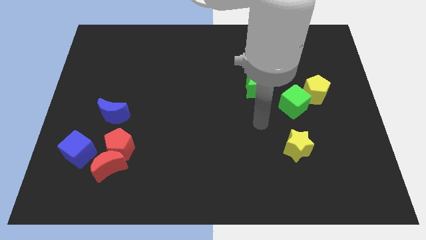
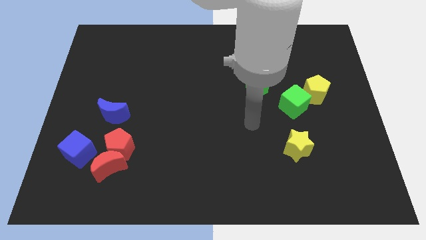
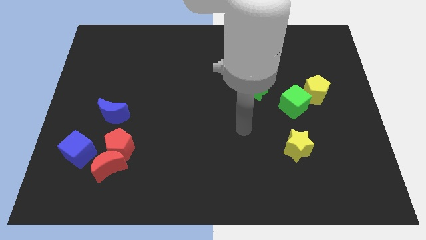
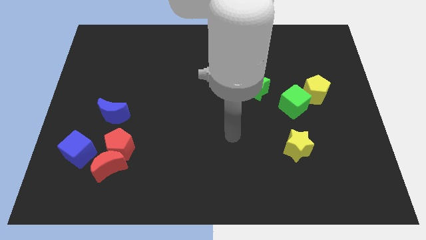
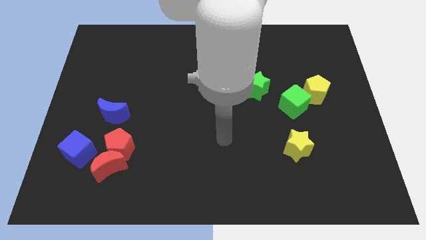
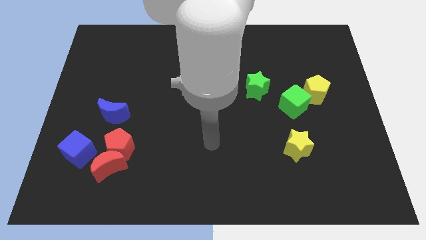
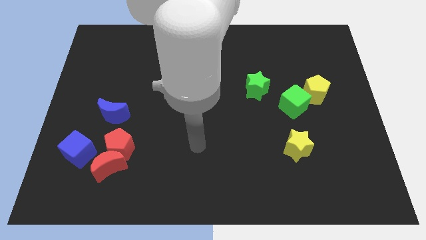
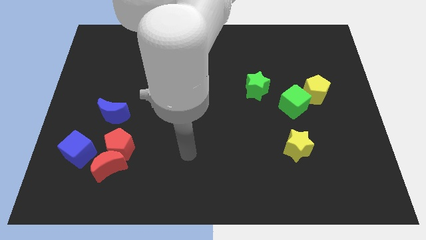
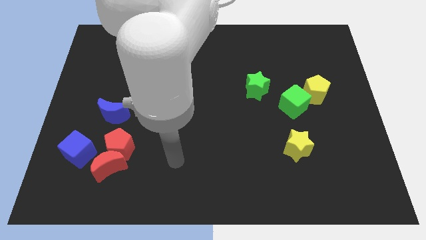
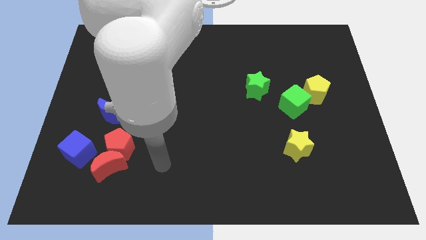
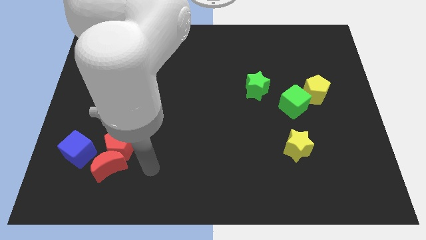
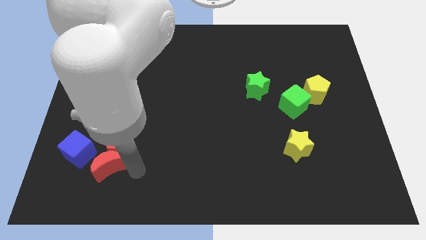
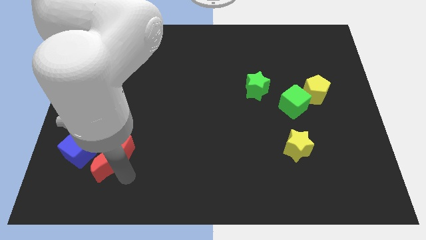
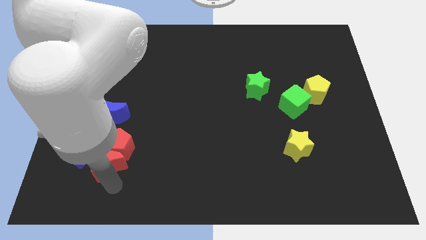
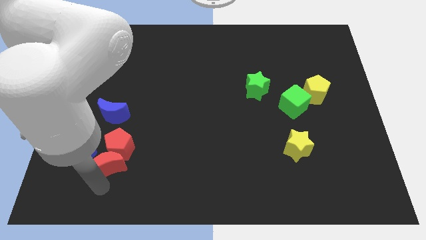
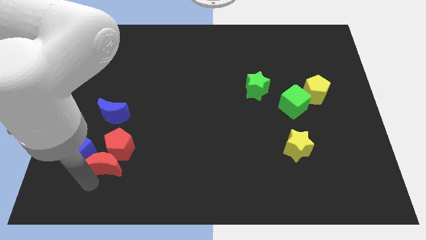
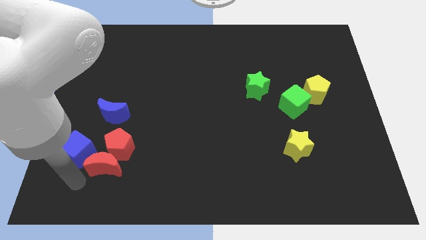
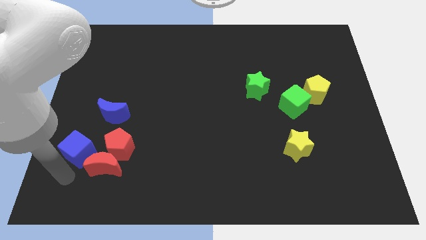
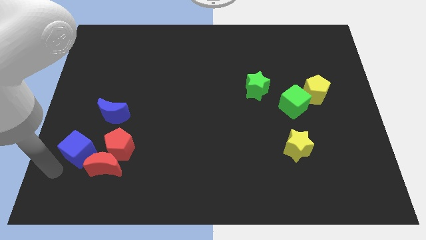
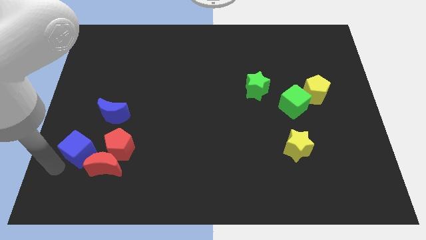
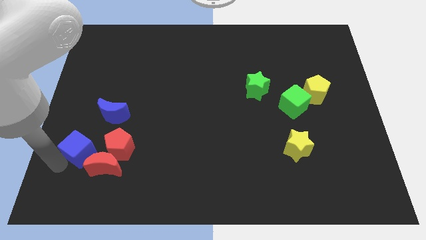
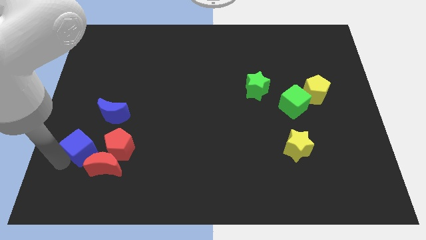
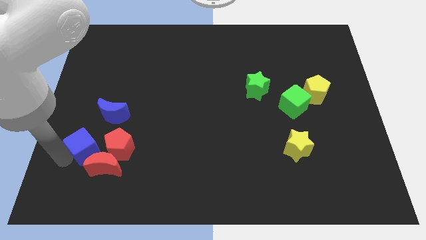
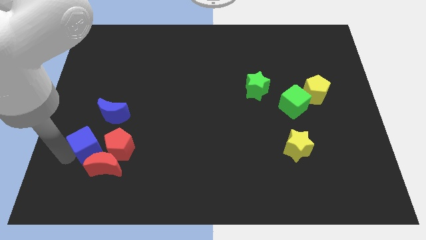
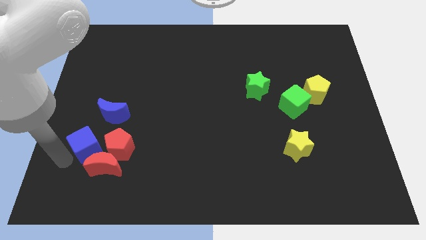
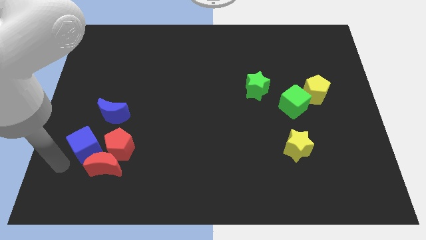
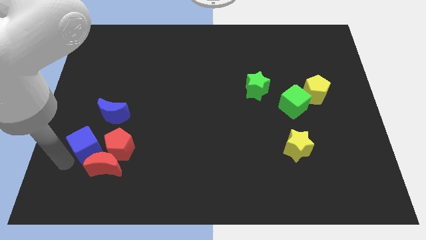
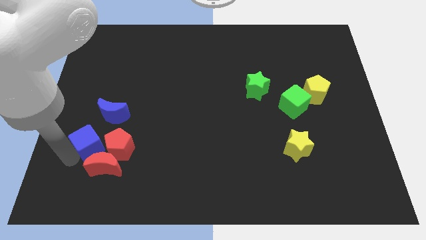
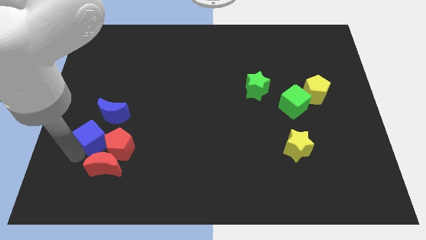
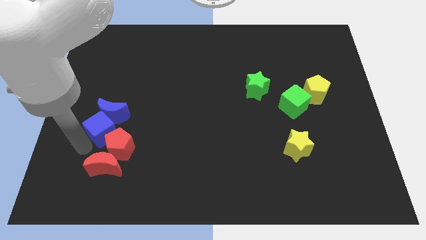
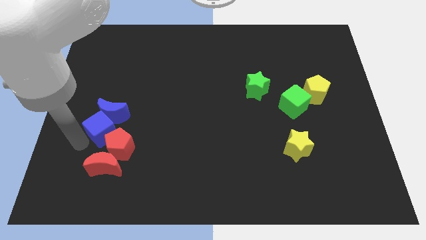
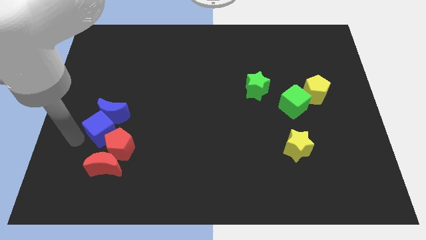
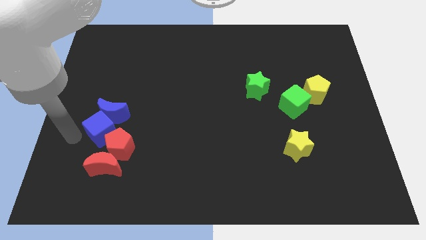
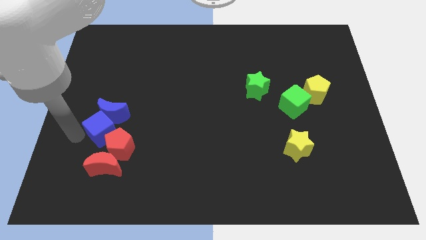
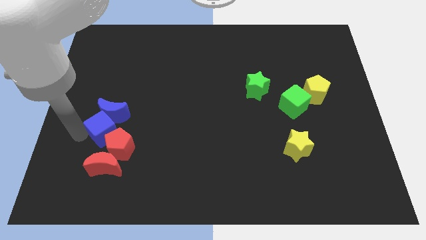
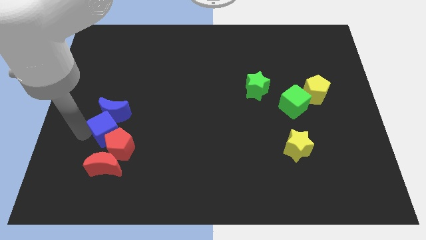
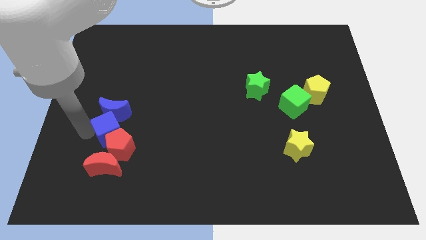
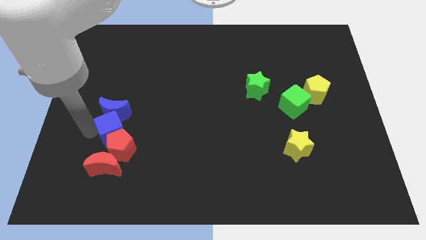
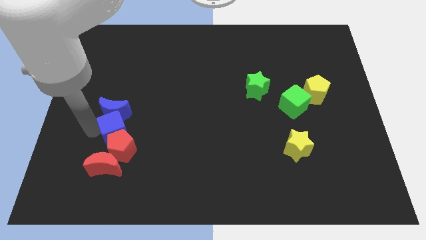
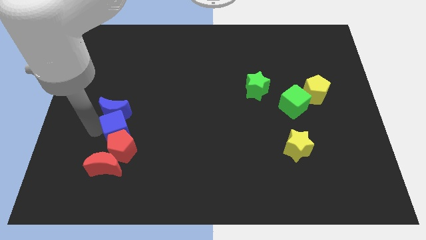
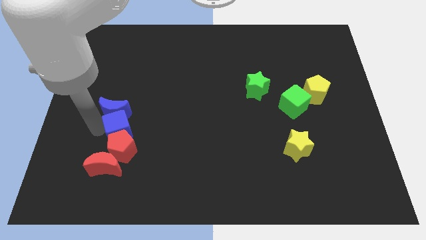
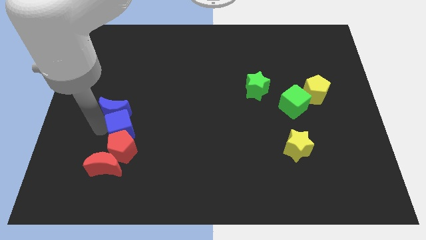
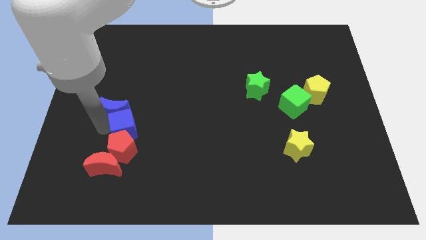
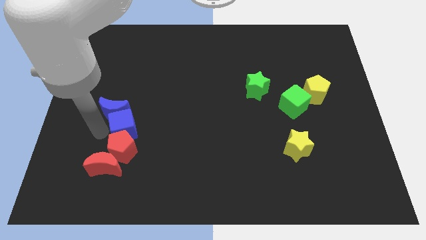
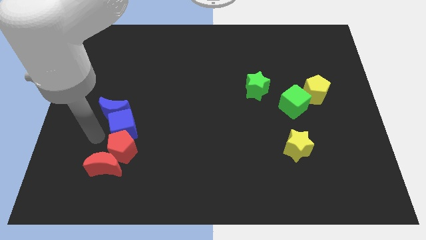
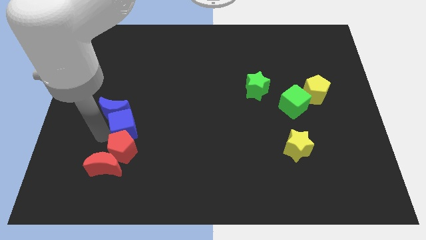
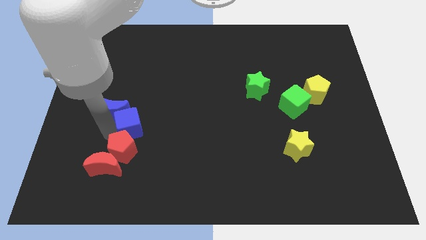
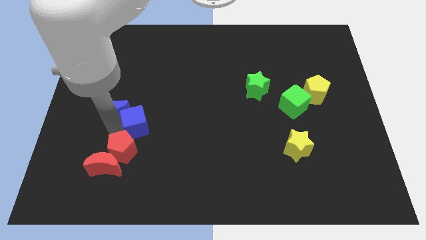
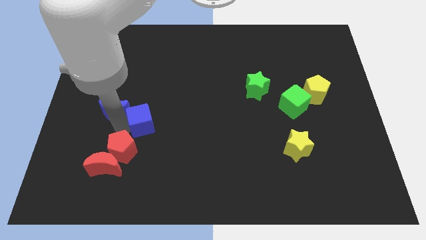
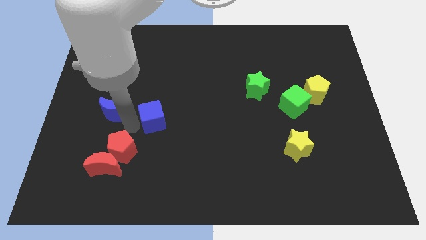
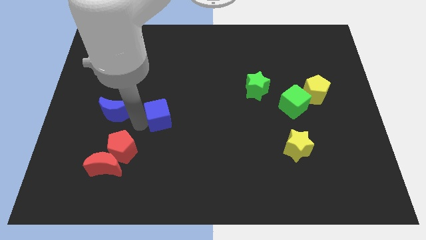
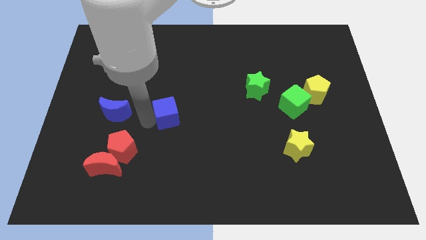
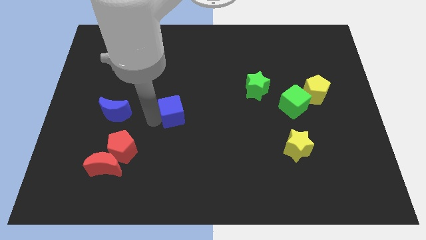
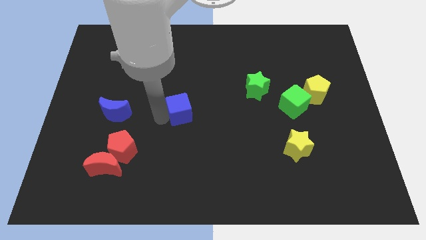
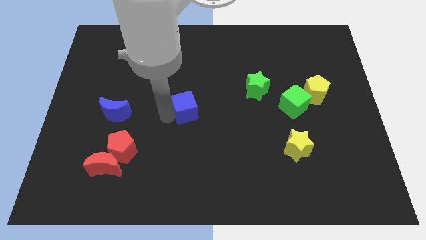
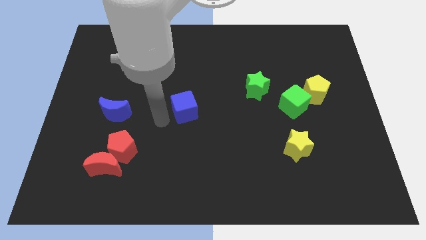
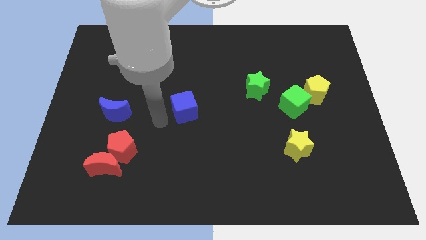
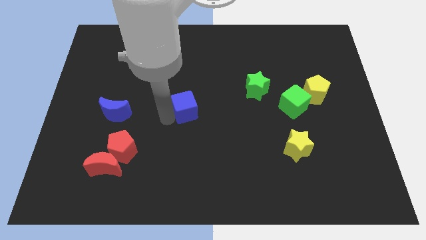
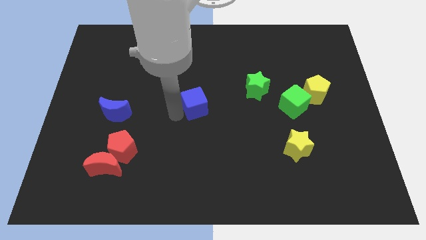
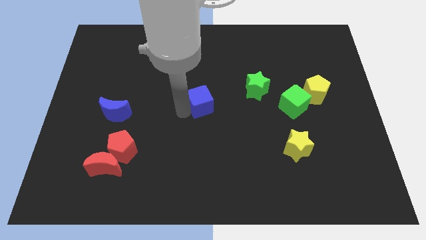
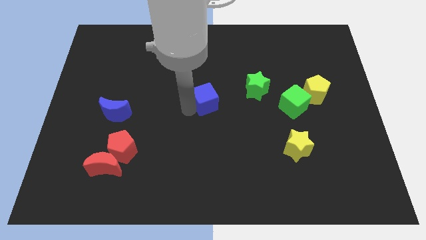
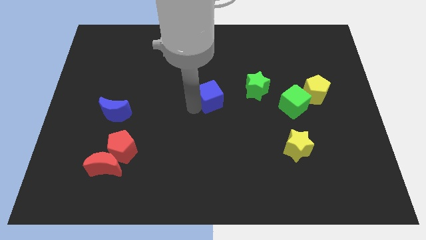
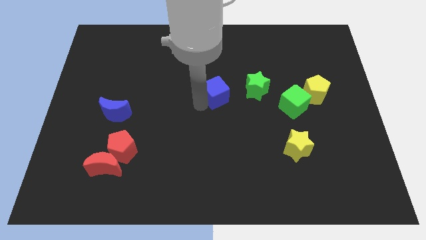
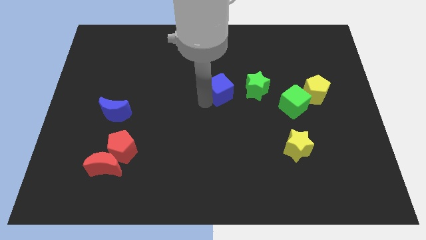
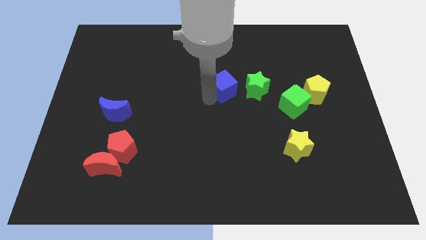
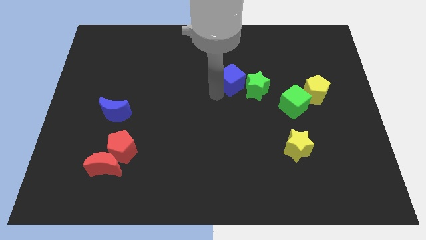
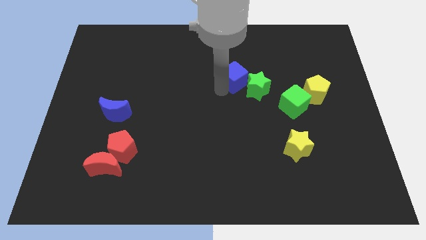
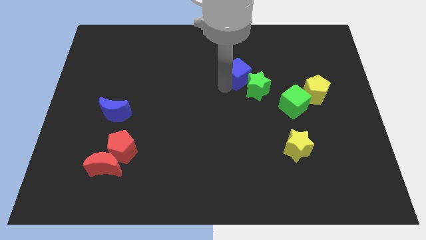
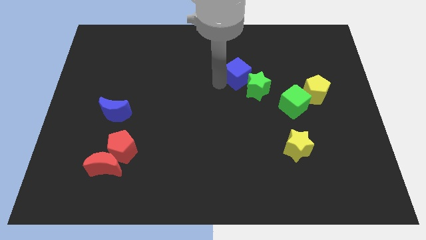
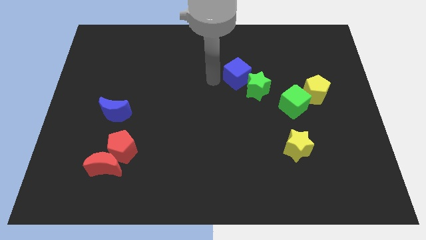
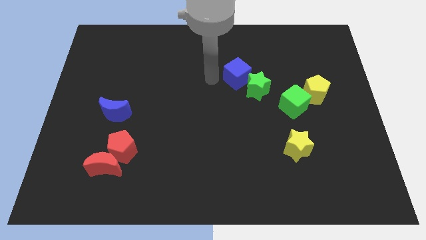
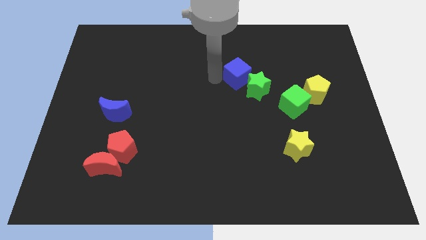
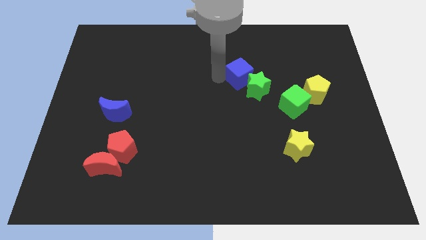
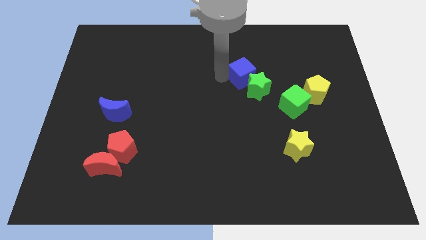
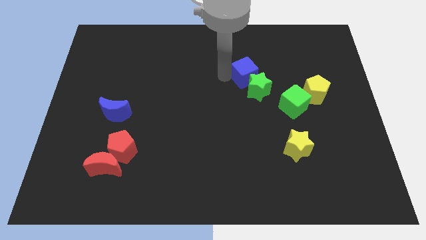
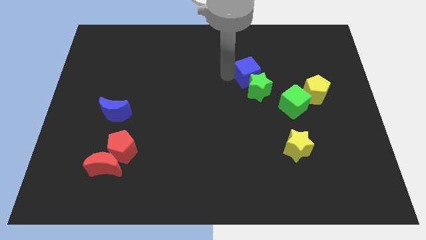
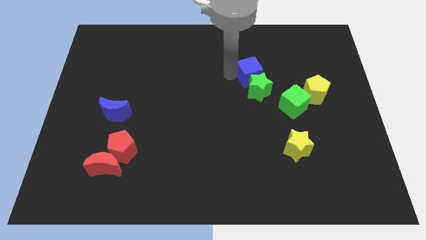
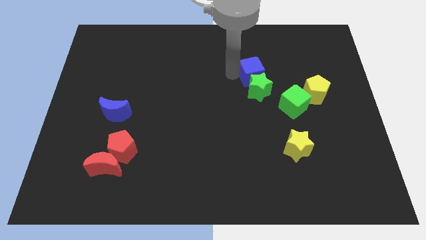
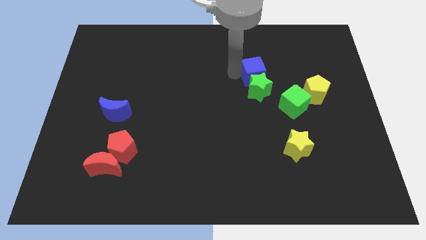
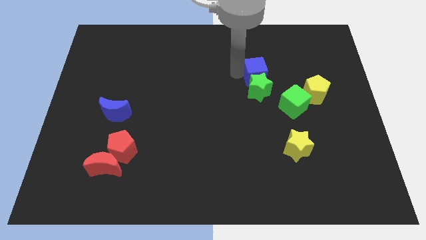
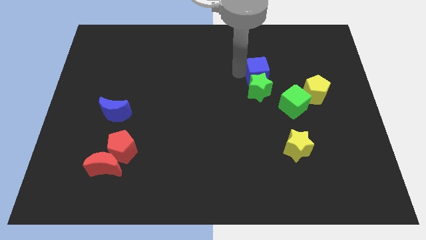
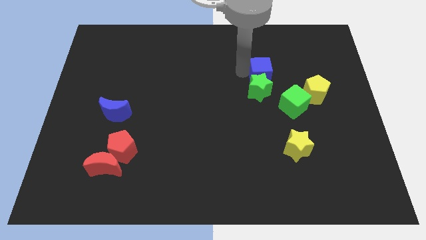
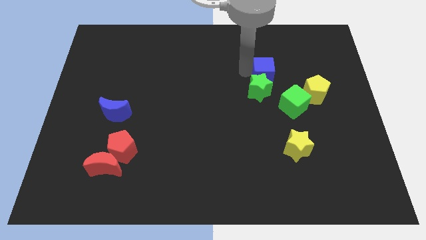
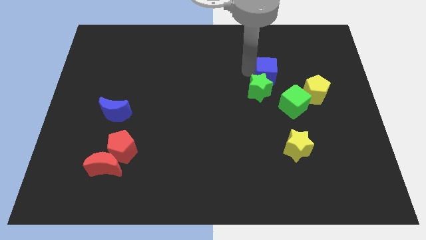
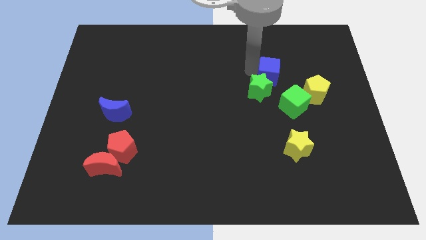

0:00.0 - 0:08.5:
move the blue cube to the top left of the yellow pentagon
